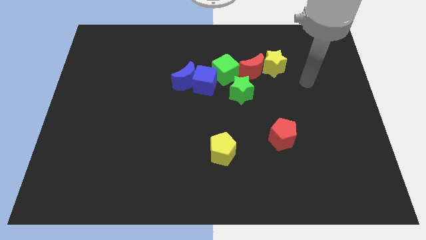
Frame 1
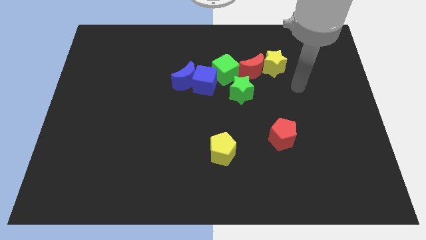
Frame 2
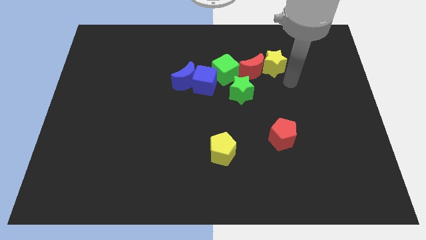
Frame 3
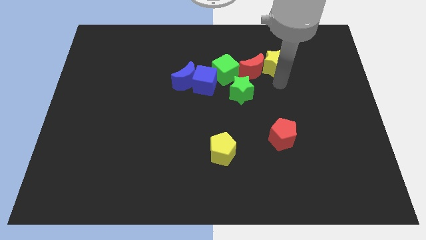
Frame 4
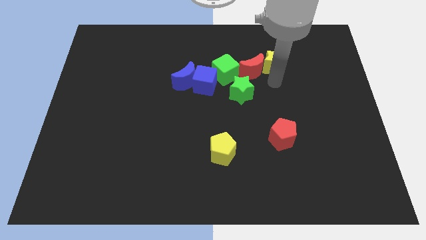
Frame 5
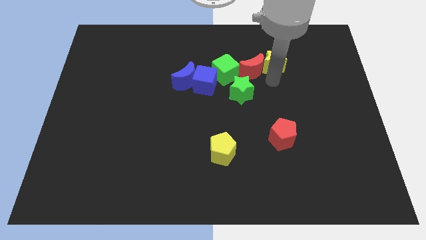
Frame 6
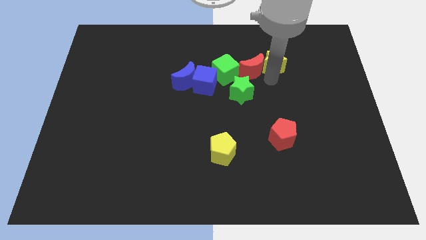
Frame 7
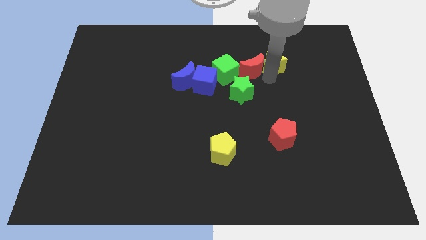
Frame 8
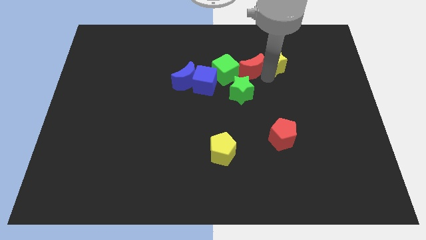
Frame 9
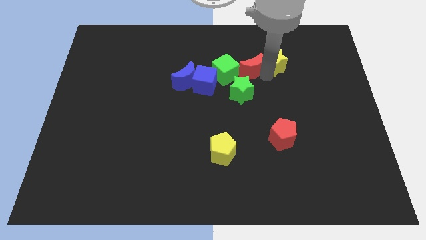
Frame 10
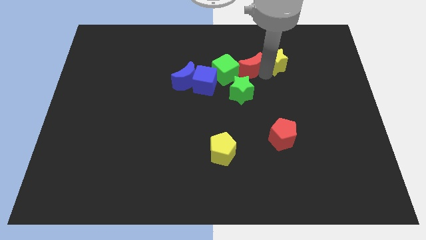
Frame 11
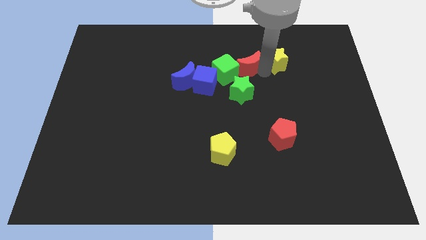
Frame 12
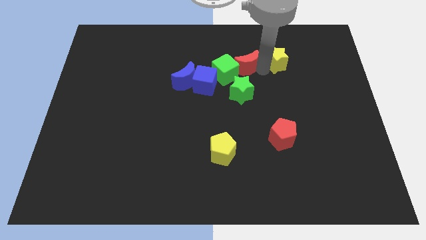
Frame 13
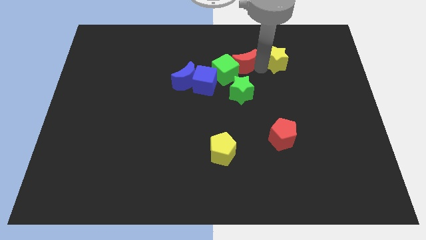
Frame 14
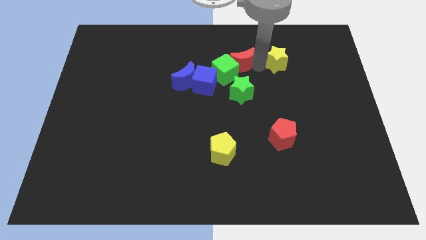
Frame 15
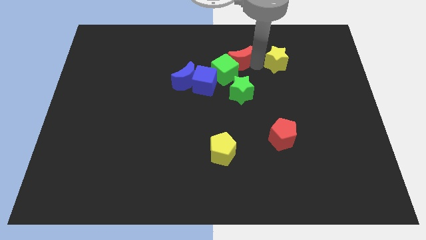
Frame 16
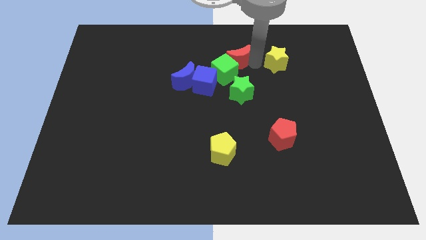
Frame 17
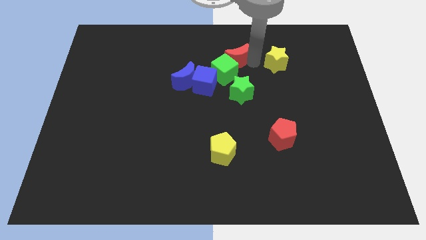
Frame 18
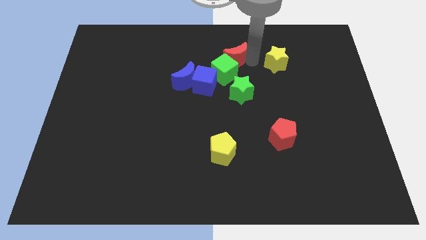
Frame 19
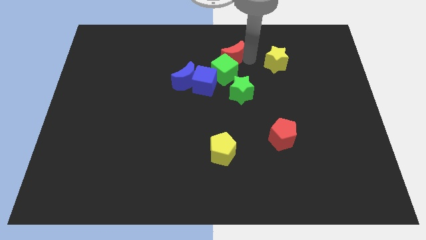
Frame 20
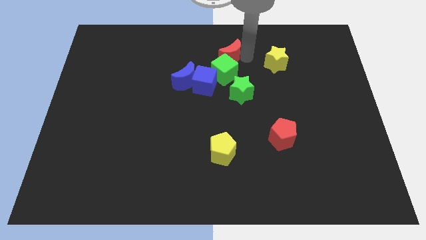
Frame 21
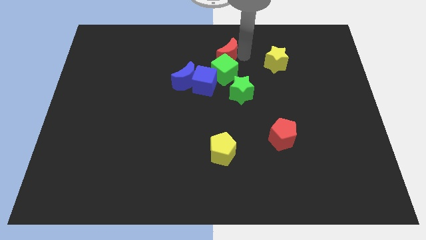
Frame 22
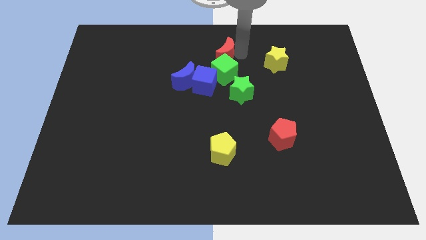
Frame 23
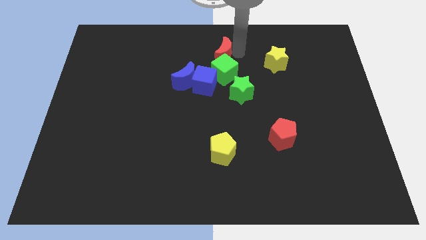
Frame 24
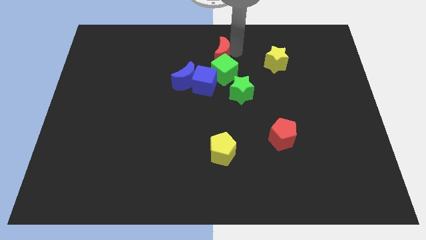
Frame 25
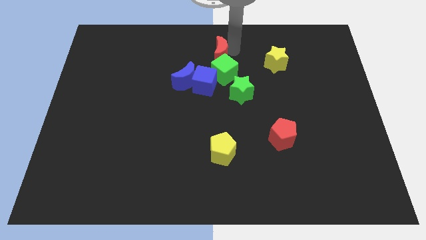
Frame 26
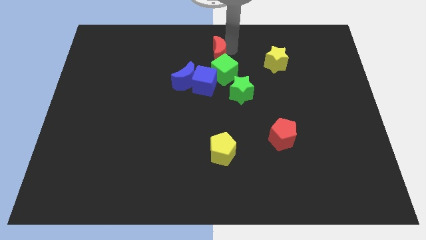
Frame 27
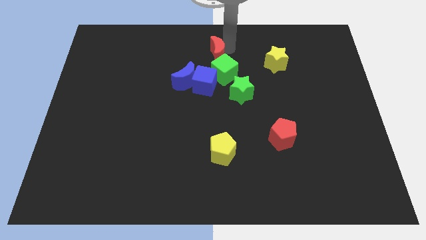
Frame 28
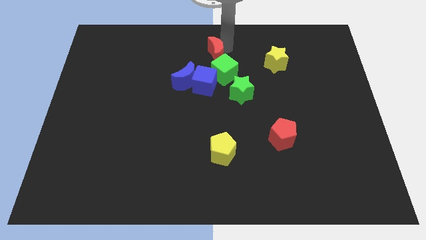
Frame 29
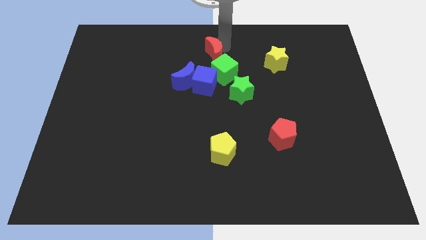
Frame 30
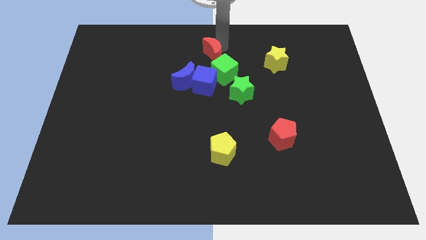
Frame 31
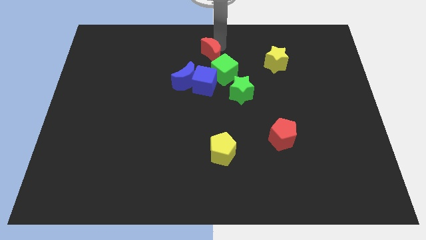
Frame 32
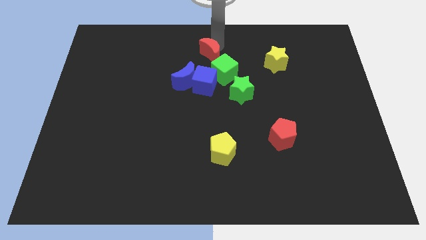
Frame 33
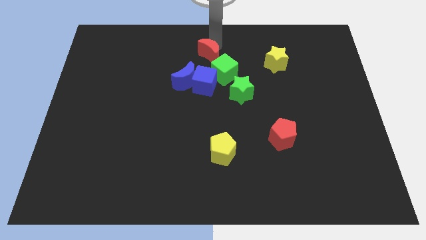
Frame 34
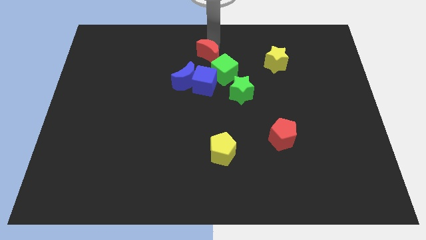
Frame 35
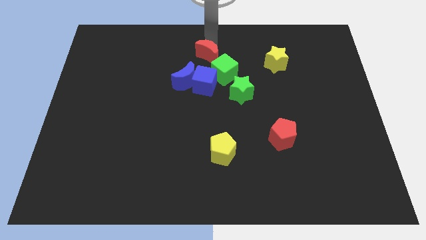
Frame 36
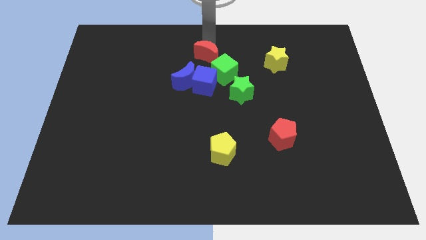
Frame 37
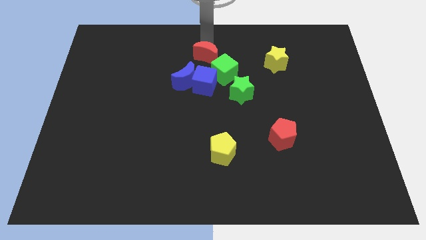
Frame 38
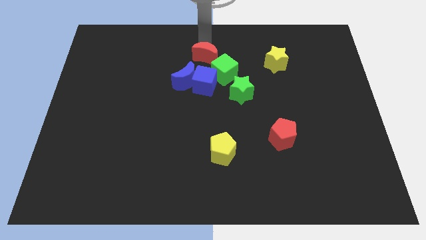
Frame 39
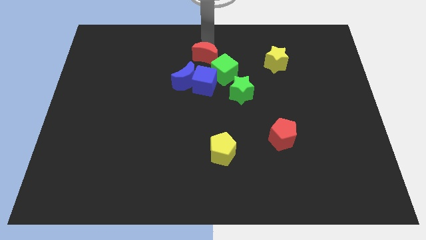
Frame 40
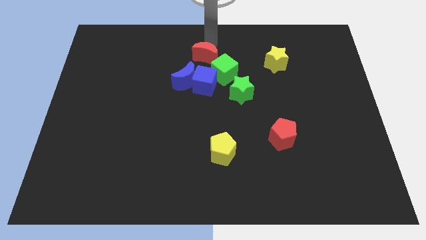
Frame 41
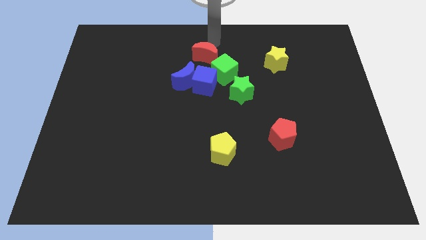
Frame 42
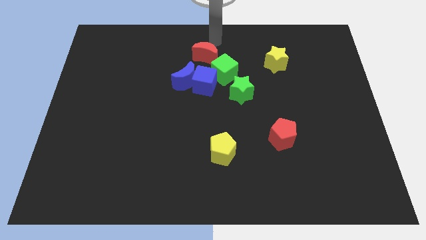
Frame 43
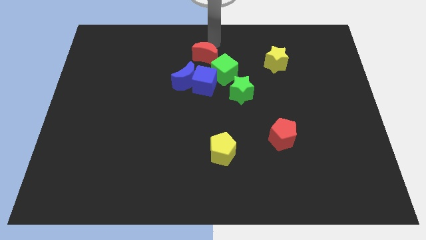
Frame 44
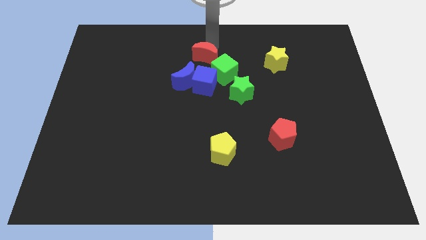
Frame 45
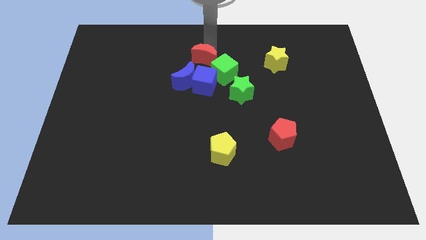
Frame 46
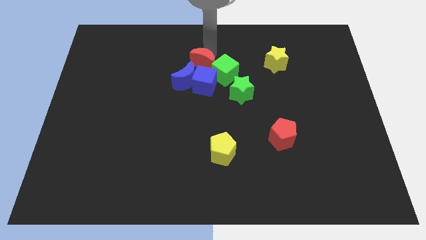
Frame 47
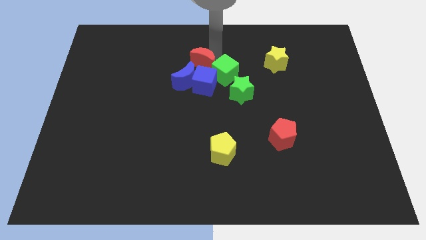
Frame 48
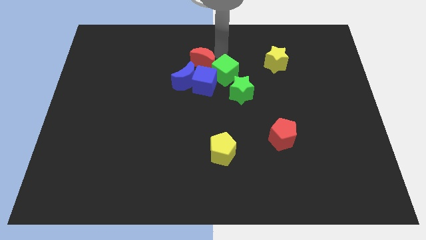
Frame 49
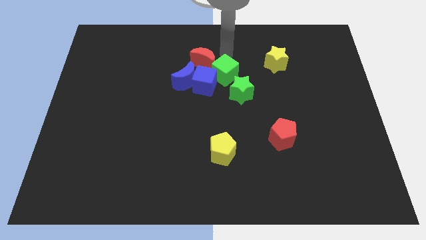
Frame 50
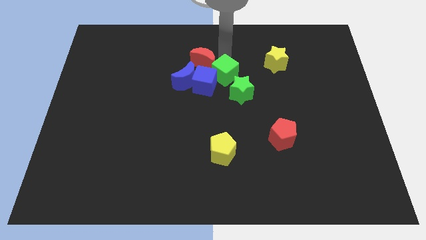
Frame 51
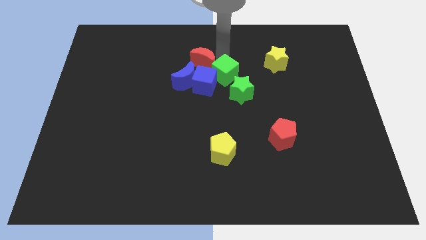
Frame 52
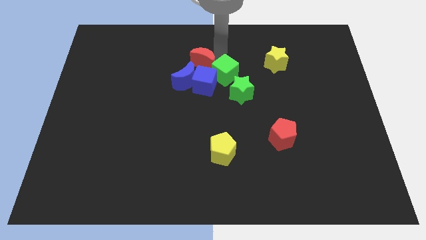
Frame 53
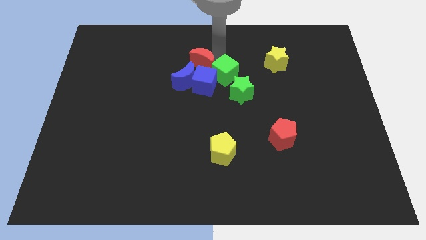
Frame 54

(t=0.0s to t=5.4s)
put the red moon to the top left of the blue cube

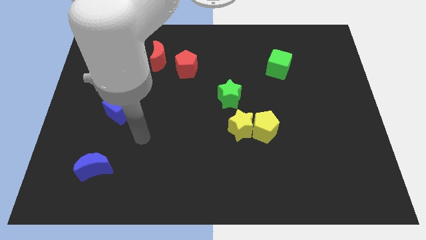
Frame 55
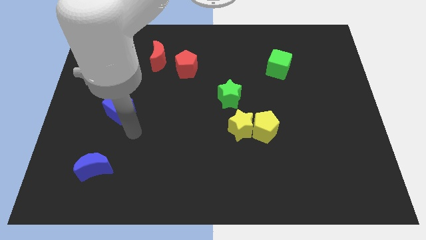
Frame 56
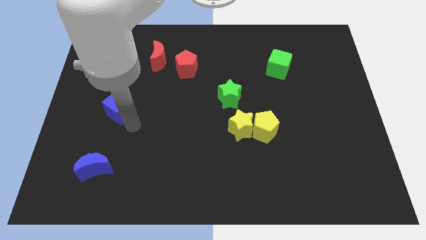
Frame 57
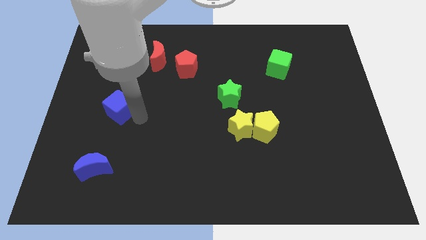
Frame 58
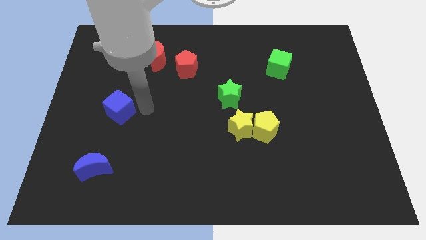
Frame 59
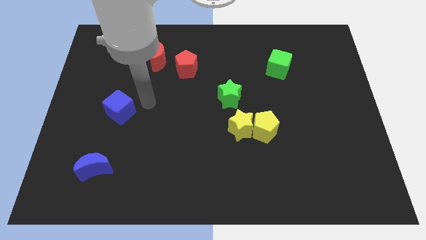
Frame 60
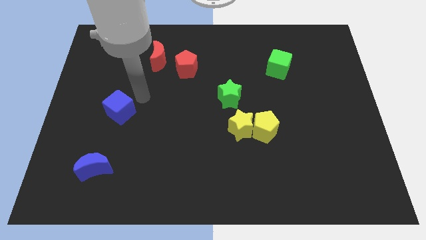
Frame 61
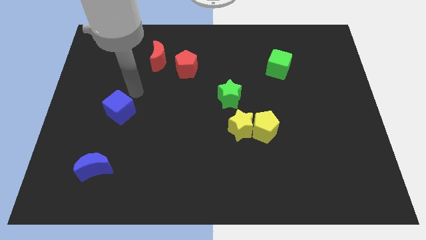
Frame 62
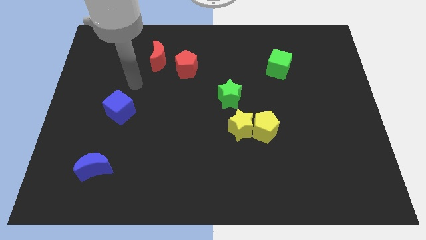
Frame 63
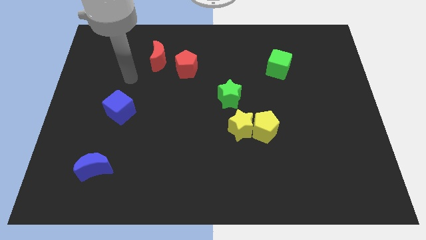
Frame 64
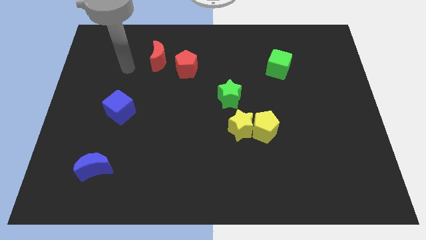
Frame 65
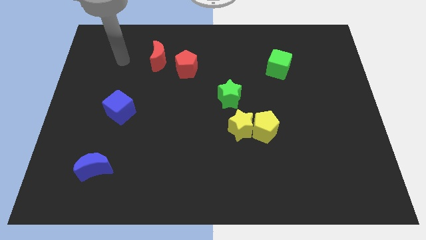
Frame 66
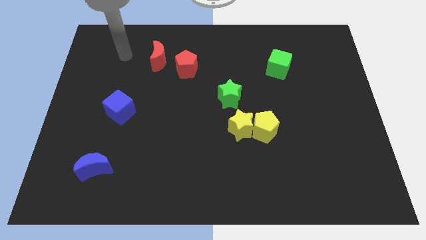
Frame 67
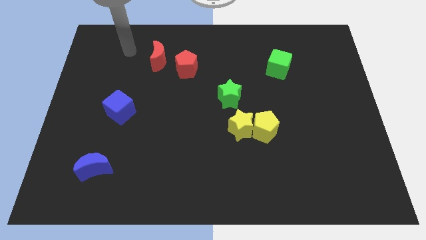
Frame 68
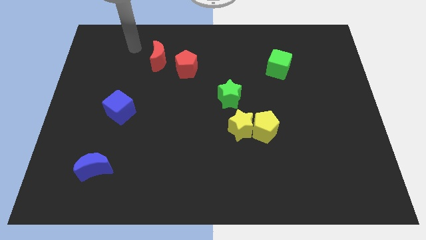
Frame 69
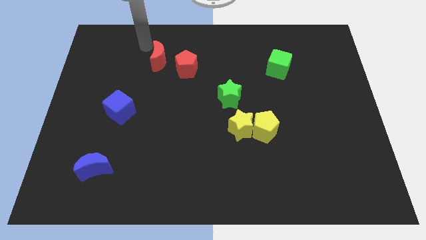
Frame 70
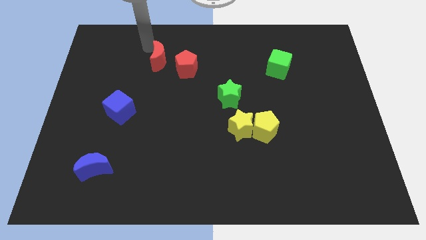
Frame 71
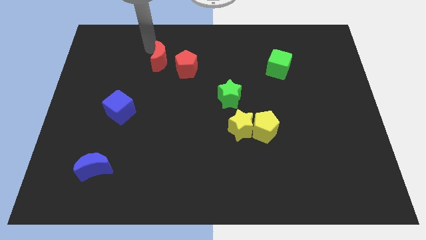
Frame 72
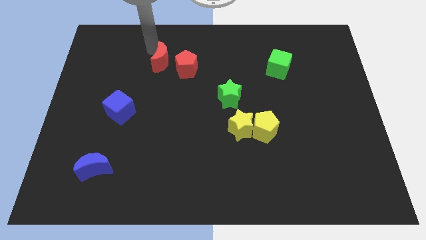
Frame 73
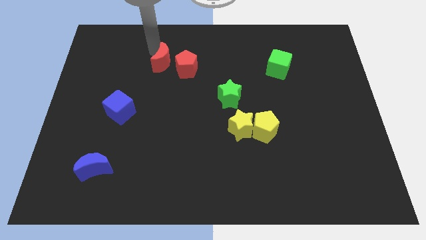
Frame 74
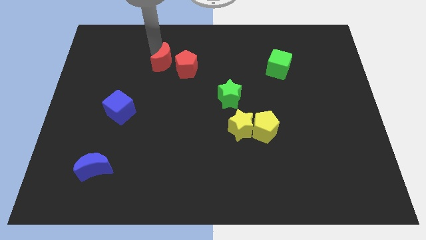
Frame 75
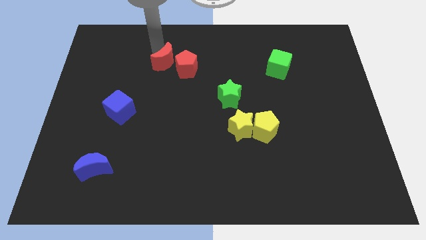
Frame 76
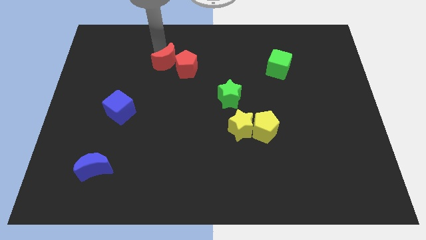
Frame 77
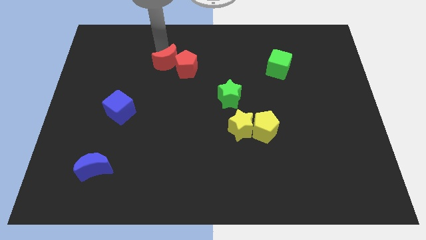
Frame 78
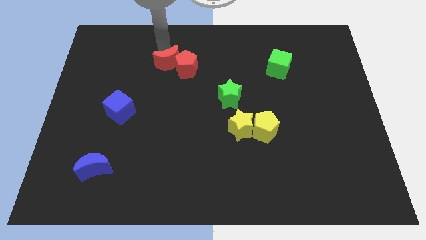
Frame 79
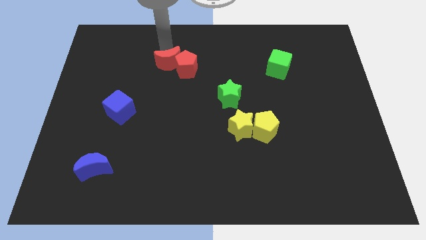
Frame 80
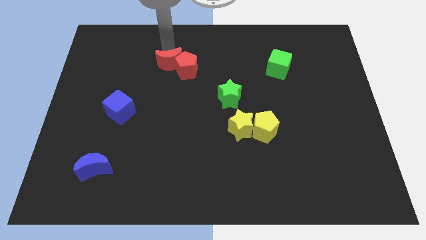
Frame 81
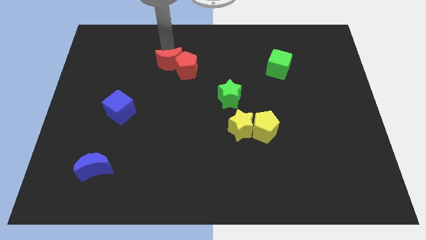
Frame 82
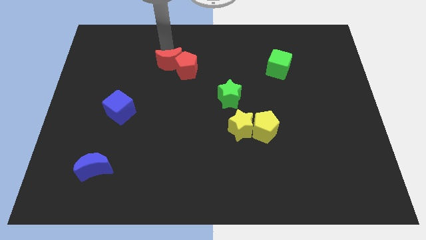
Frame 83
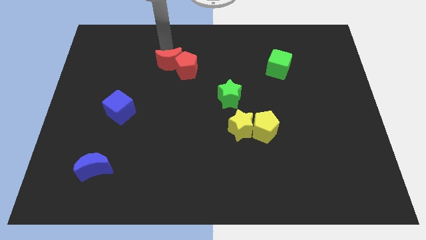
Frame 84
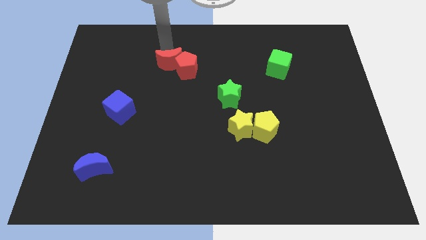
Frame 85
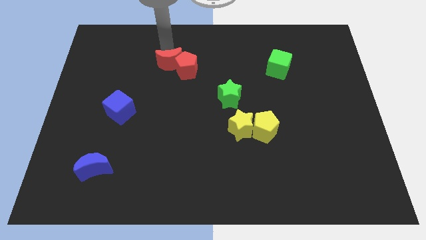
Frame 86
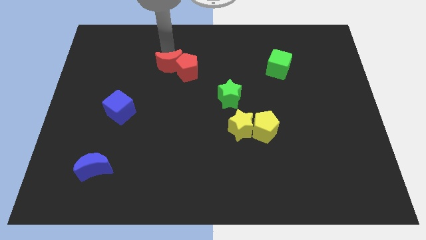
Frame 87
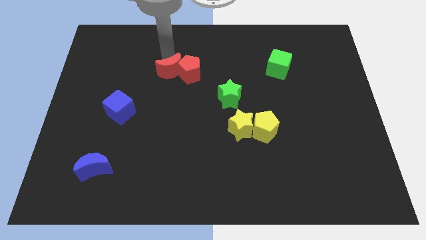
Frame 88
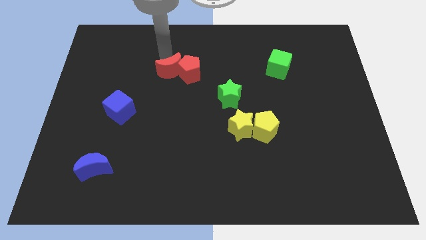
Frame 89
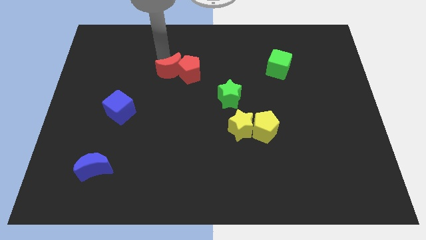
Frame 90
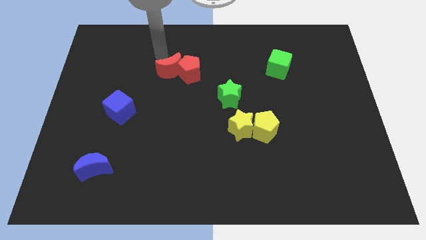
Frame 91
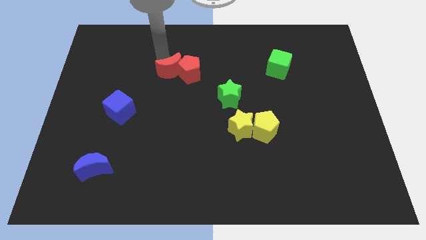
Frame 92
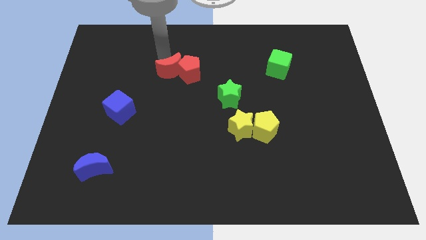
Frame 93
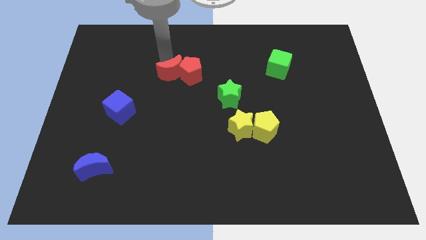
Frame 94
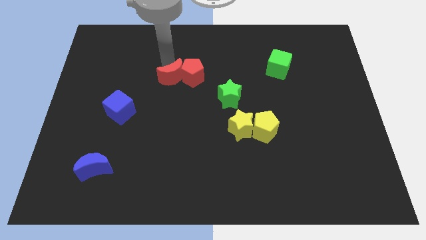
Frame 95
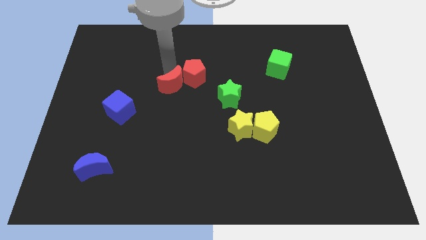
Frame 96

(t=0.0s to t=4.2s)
push the red moon to the left of the green star
